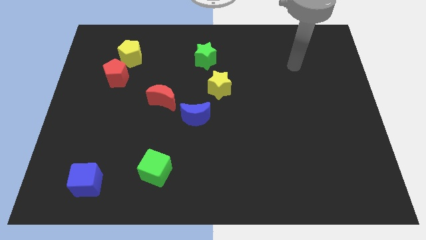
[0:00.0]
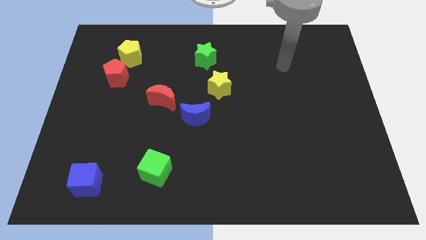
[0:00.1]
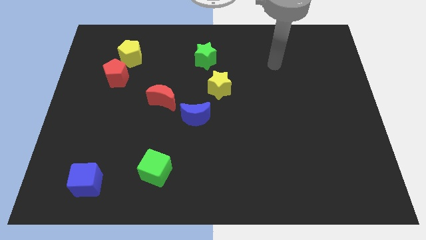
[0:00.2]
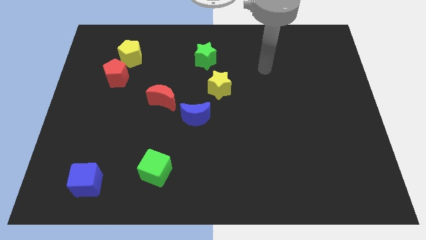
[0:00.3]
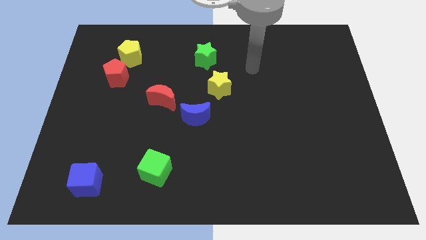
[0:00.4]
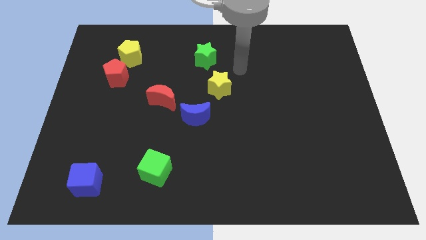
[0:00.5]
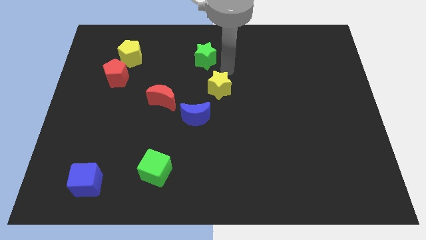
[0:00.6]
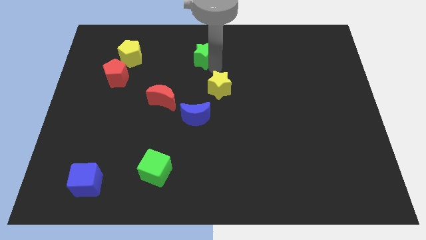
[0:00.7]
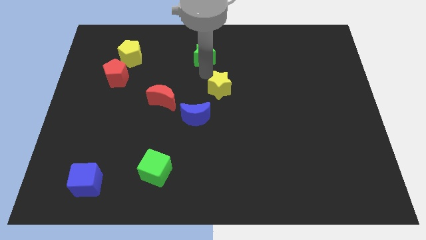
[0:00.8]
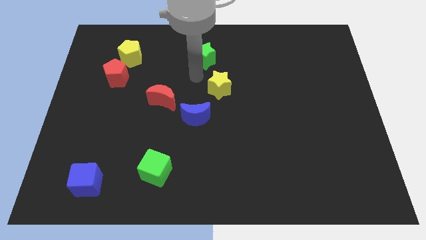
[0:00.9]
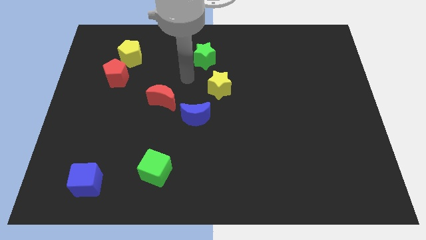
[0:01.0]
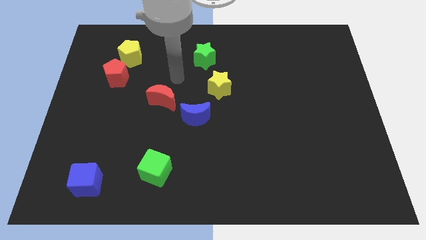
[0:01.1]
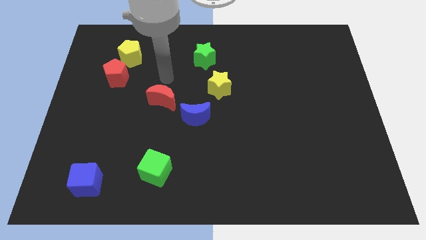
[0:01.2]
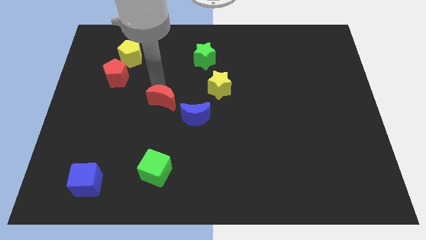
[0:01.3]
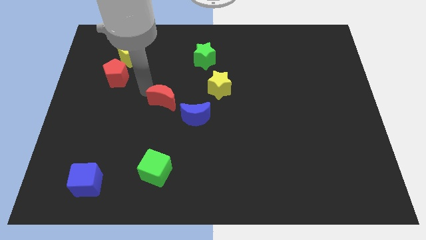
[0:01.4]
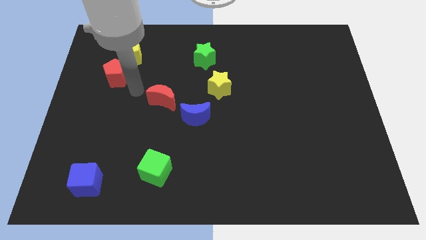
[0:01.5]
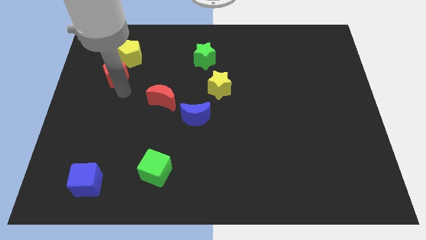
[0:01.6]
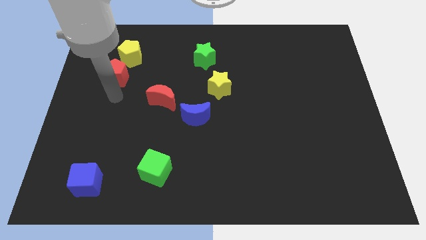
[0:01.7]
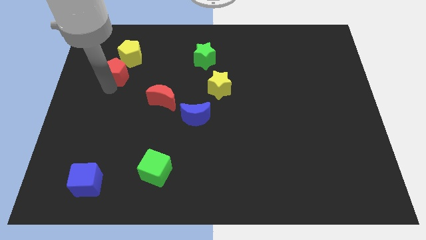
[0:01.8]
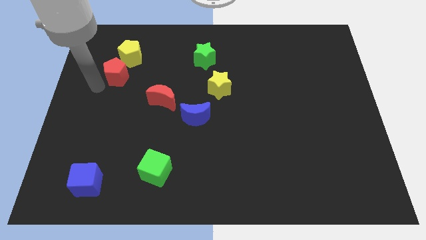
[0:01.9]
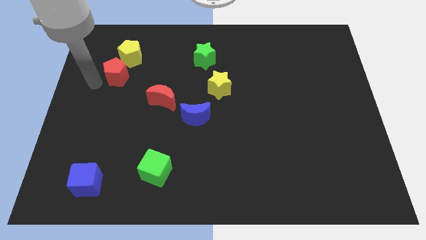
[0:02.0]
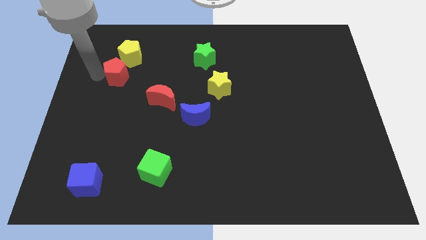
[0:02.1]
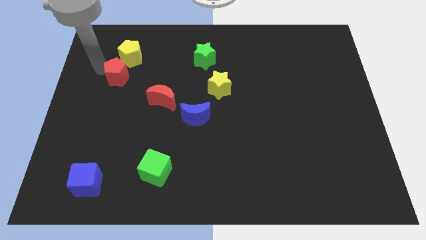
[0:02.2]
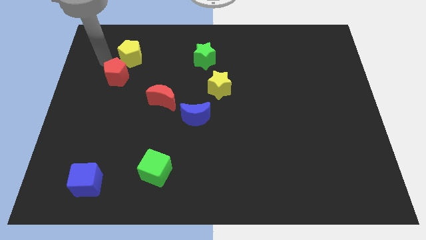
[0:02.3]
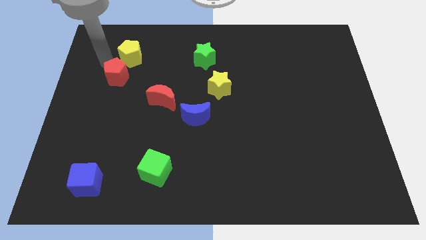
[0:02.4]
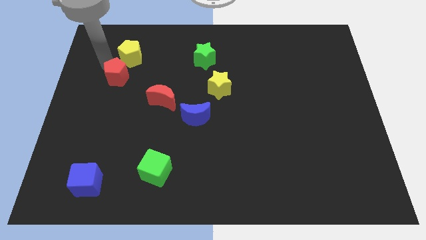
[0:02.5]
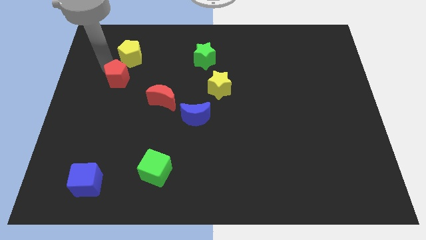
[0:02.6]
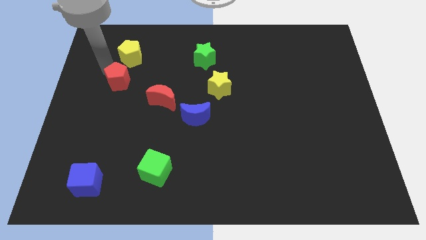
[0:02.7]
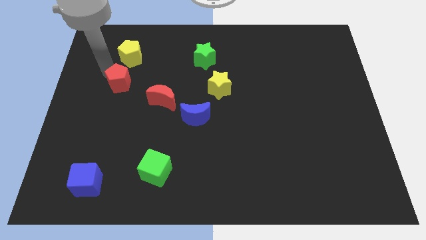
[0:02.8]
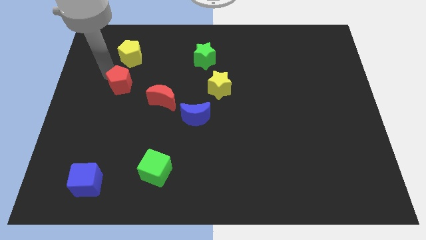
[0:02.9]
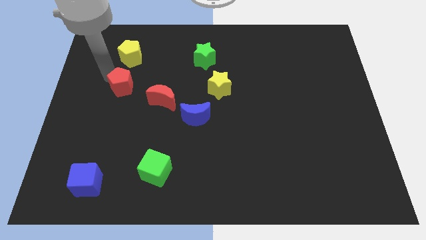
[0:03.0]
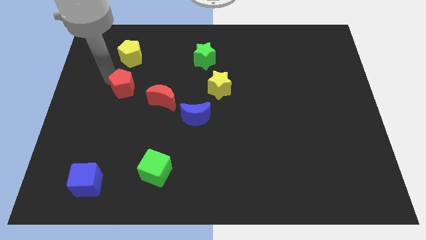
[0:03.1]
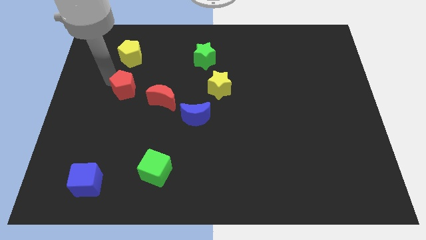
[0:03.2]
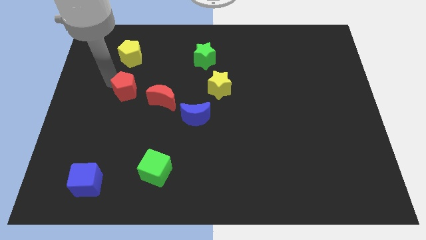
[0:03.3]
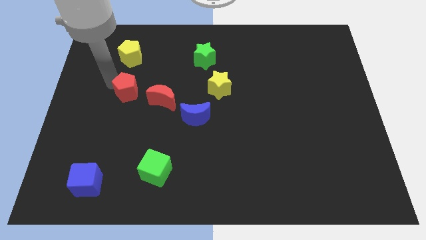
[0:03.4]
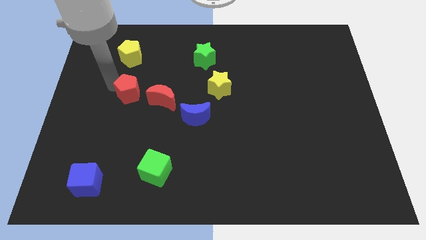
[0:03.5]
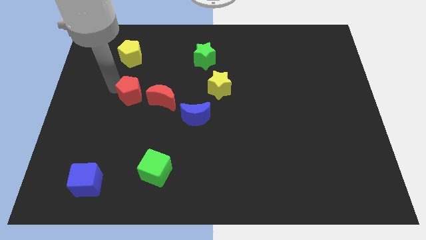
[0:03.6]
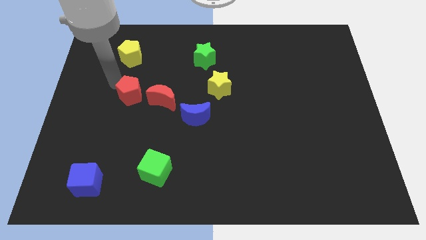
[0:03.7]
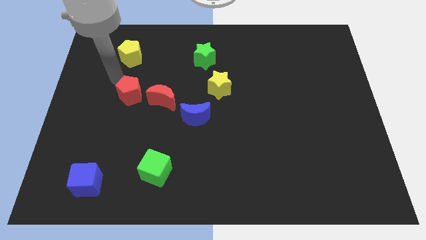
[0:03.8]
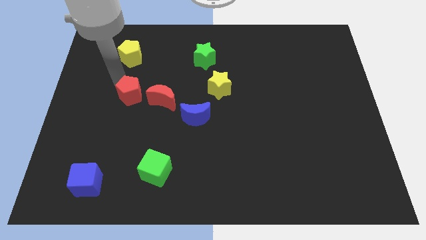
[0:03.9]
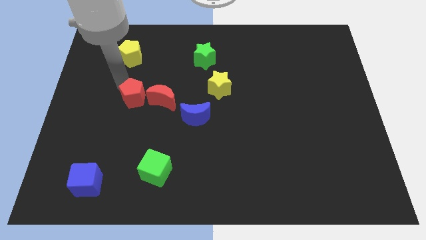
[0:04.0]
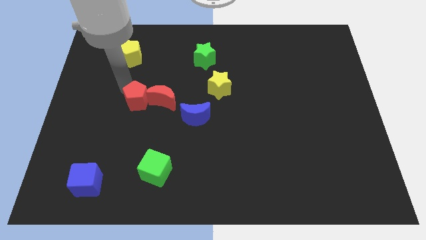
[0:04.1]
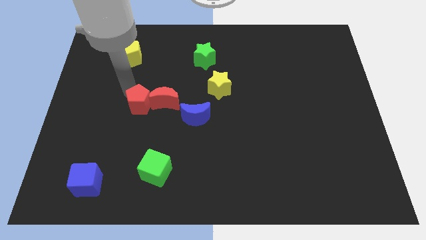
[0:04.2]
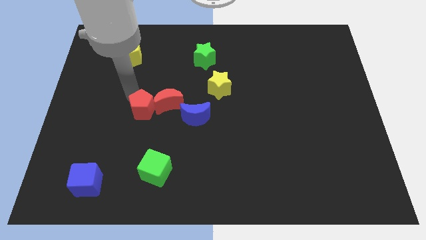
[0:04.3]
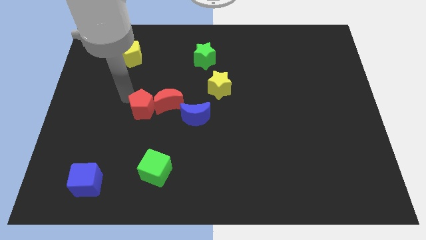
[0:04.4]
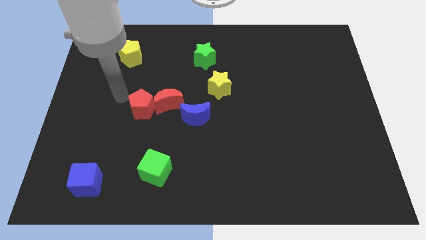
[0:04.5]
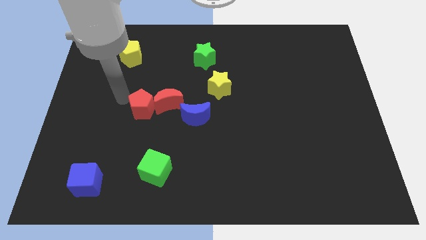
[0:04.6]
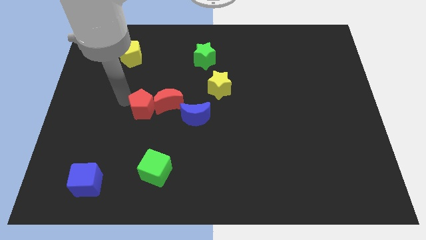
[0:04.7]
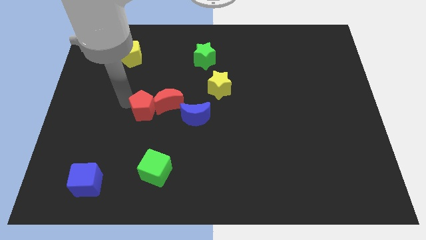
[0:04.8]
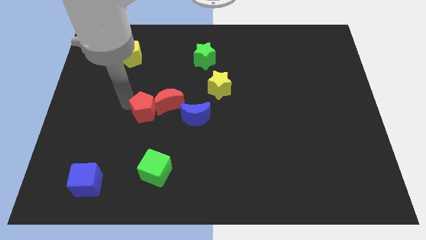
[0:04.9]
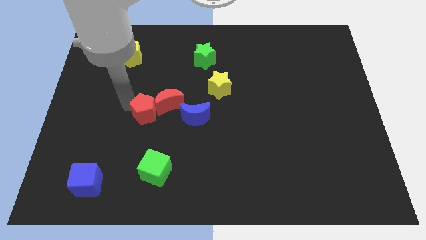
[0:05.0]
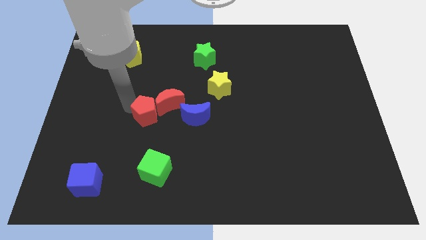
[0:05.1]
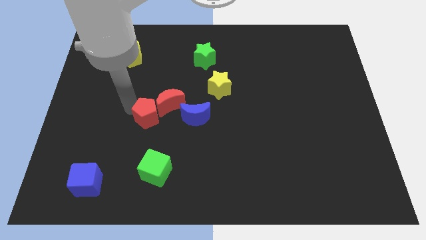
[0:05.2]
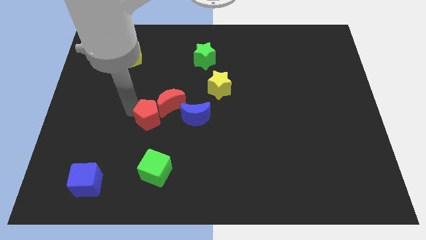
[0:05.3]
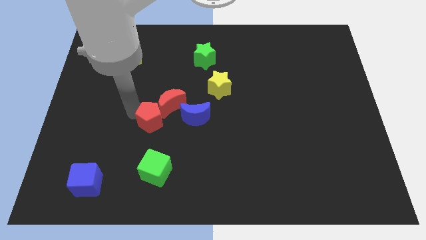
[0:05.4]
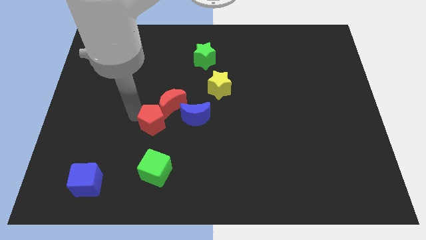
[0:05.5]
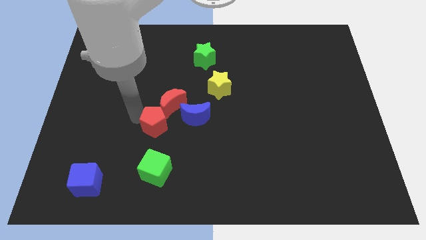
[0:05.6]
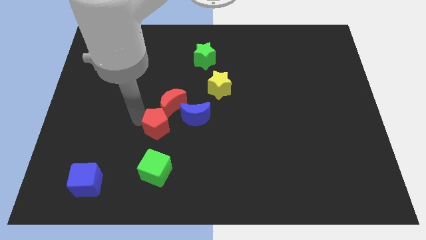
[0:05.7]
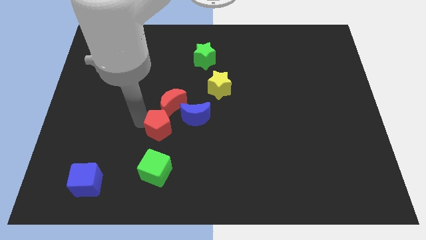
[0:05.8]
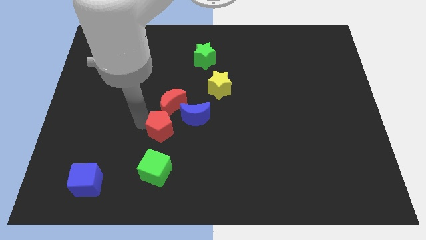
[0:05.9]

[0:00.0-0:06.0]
slide the red pentagon diagonally down and to the right

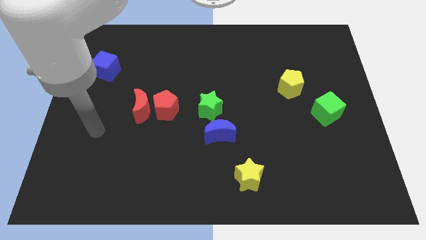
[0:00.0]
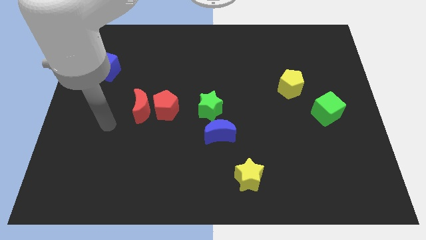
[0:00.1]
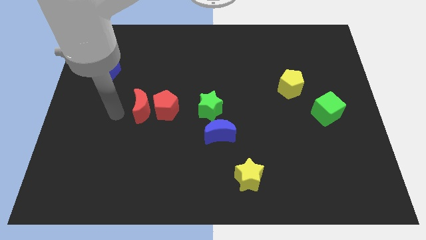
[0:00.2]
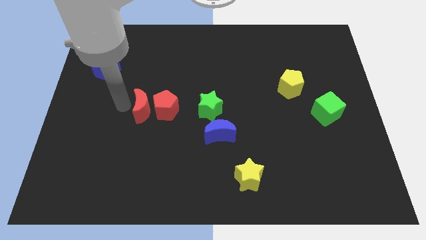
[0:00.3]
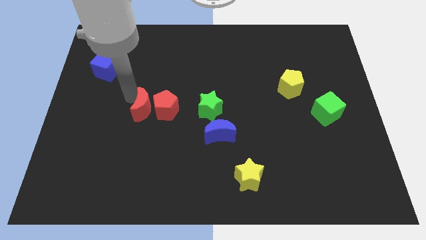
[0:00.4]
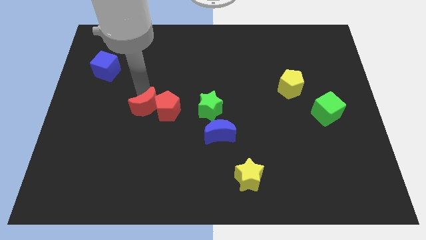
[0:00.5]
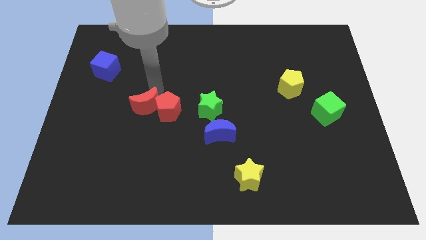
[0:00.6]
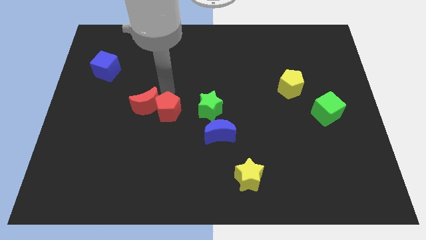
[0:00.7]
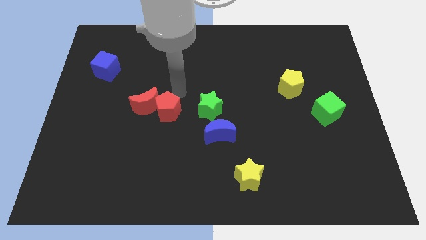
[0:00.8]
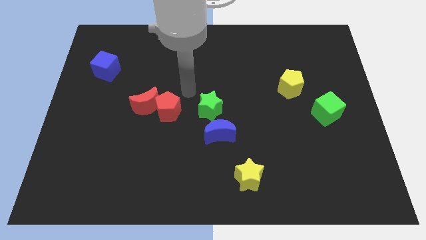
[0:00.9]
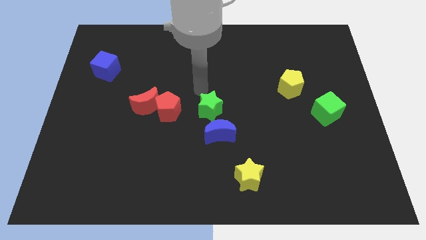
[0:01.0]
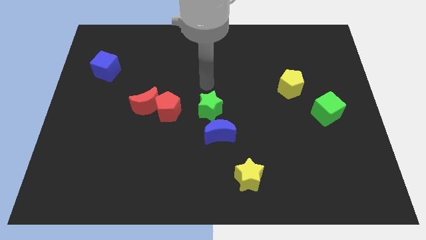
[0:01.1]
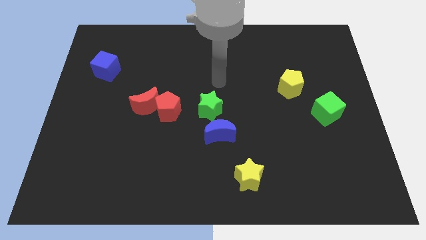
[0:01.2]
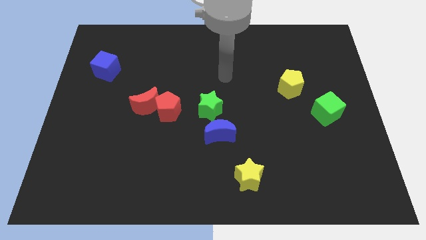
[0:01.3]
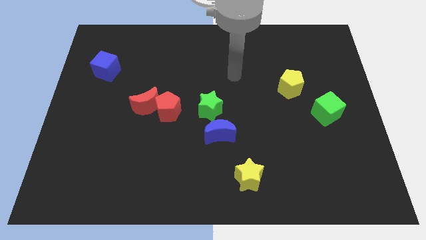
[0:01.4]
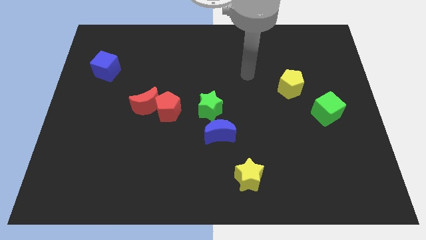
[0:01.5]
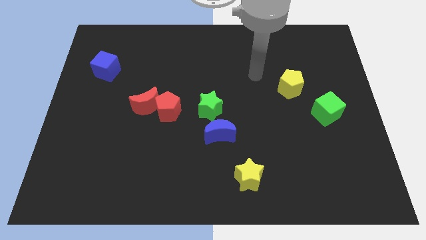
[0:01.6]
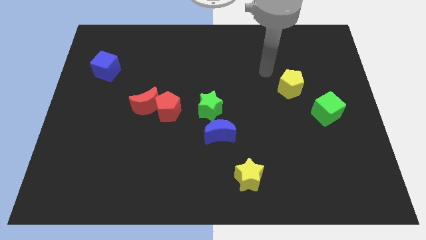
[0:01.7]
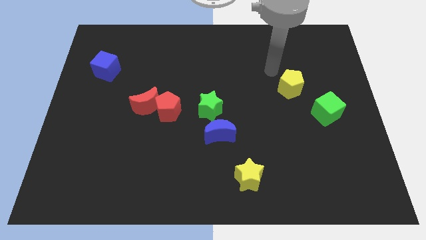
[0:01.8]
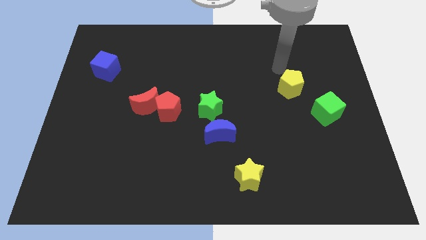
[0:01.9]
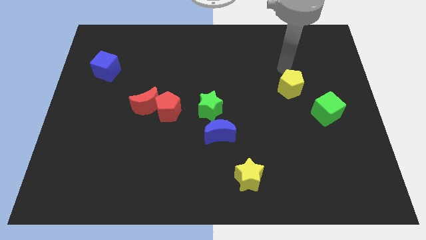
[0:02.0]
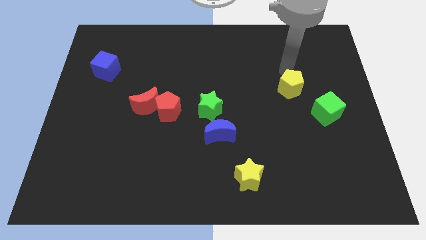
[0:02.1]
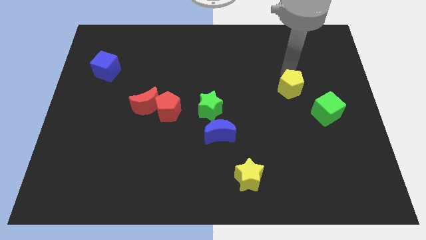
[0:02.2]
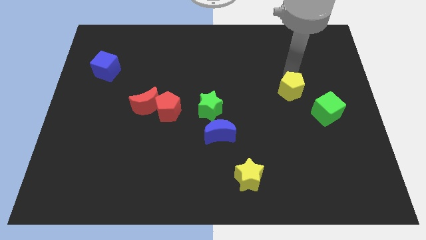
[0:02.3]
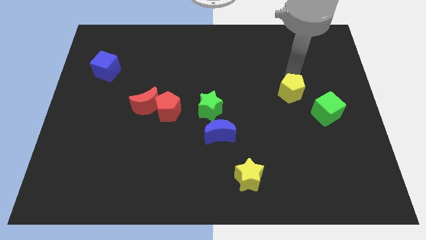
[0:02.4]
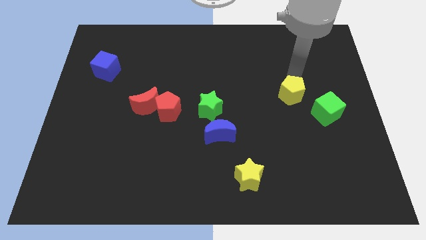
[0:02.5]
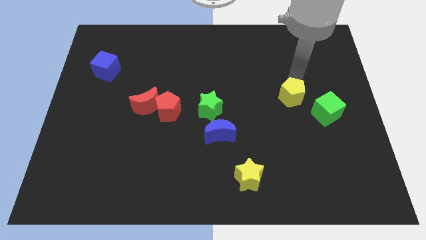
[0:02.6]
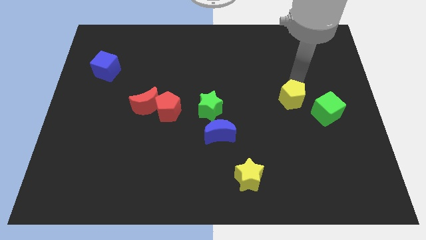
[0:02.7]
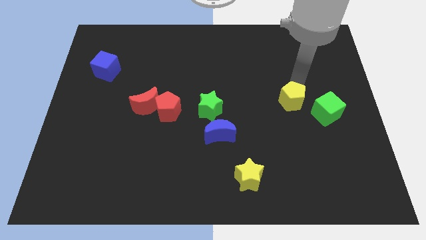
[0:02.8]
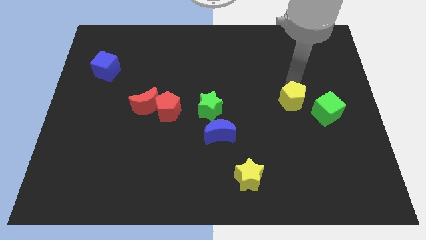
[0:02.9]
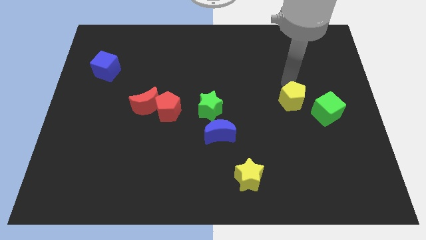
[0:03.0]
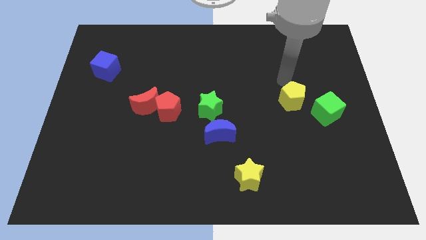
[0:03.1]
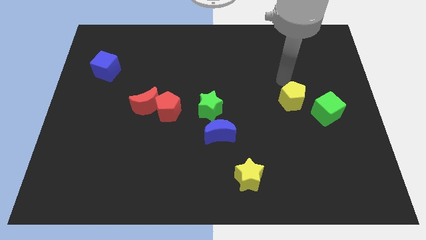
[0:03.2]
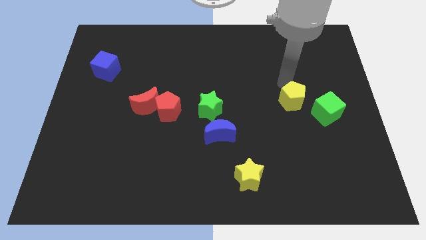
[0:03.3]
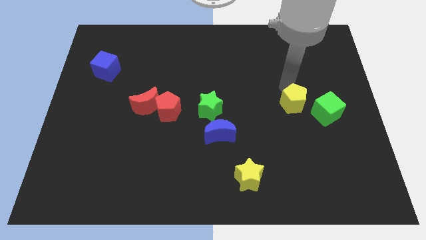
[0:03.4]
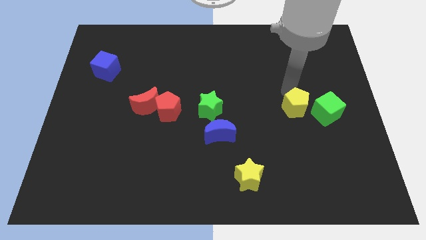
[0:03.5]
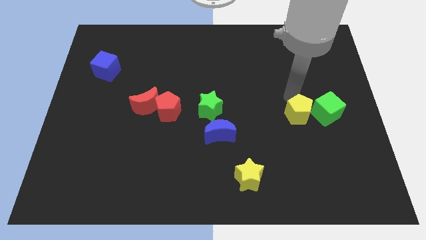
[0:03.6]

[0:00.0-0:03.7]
move the yellow pentagon a little downwards
